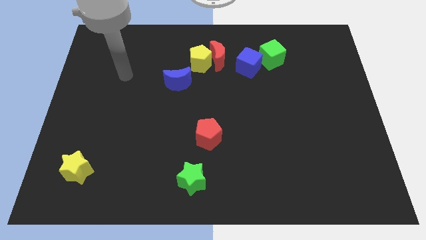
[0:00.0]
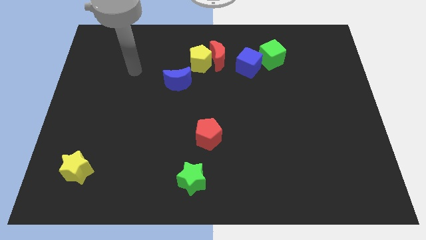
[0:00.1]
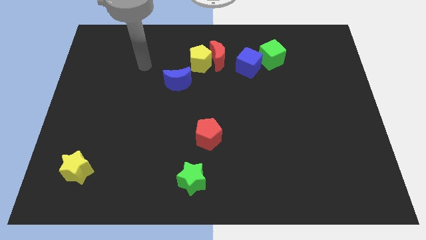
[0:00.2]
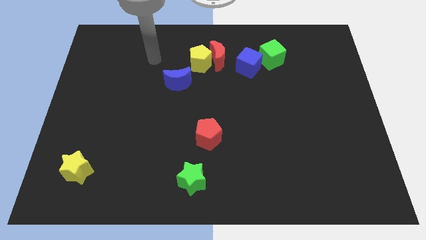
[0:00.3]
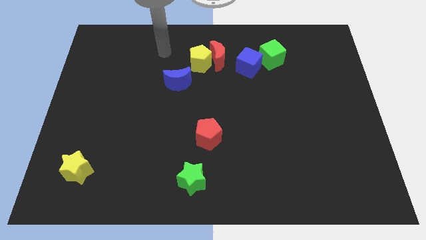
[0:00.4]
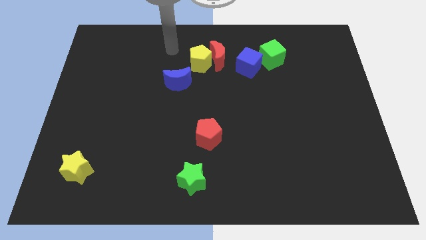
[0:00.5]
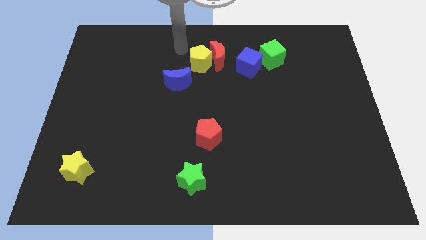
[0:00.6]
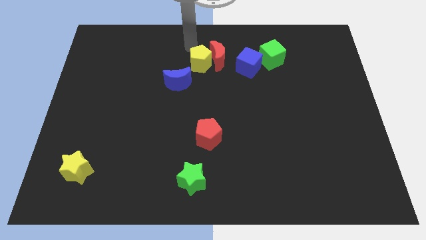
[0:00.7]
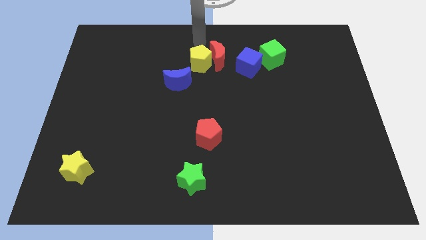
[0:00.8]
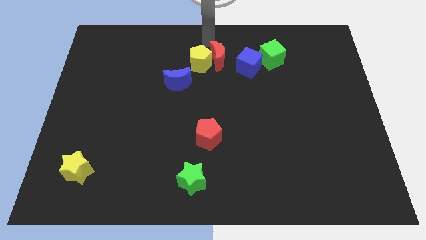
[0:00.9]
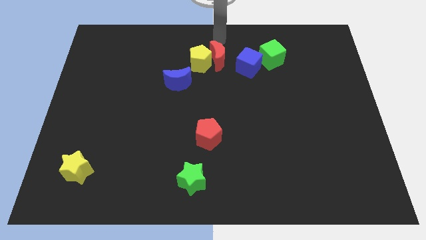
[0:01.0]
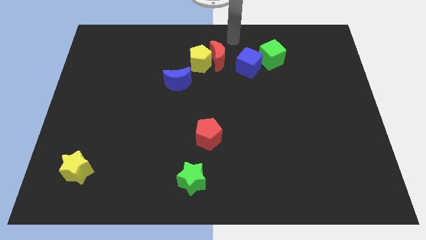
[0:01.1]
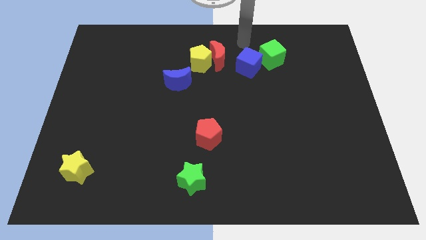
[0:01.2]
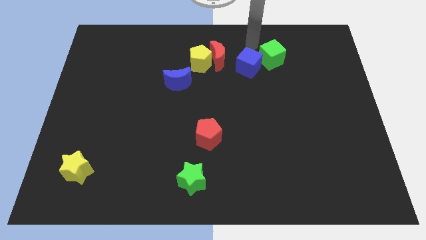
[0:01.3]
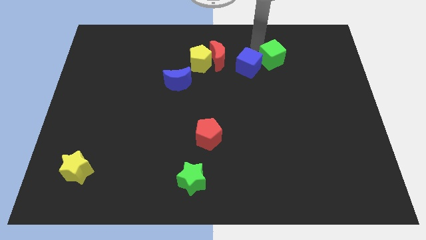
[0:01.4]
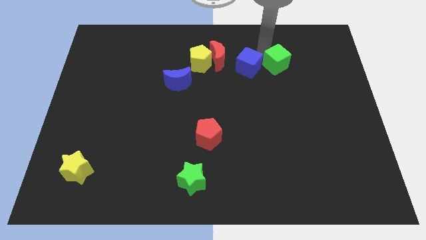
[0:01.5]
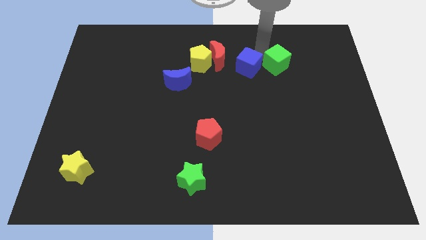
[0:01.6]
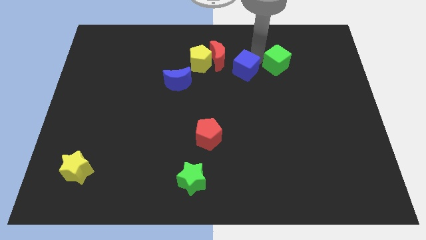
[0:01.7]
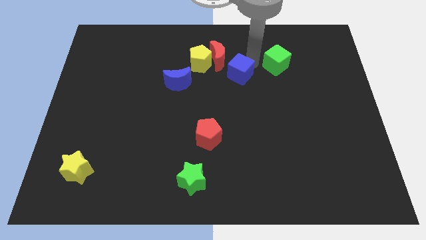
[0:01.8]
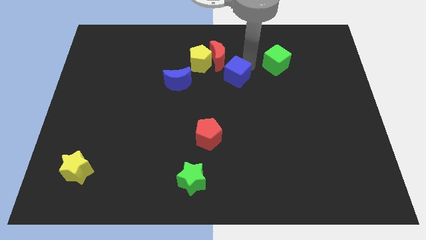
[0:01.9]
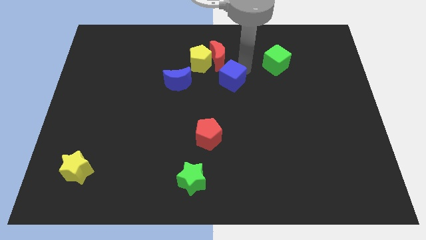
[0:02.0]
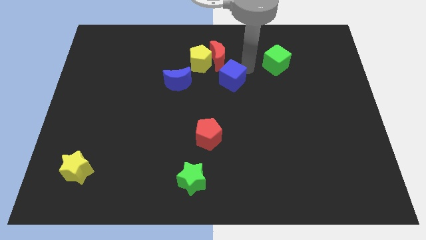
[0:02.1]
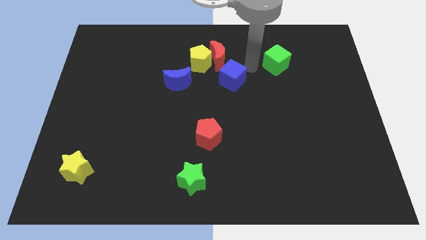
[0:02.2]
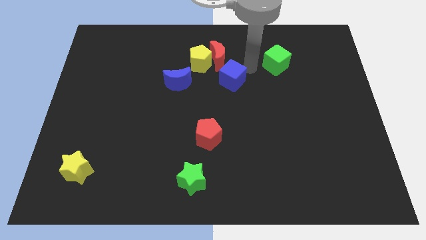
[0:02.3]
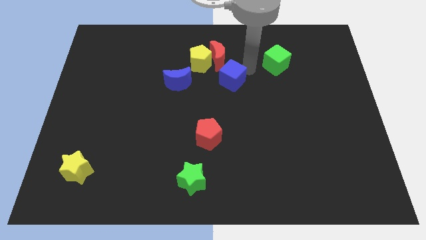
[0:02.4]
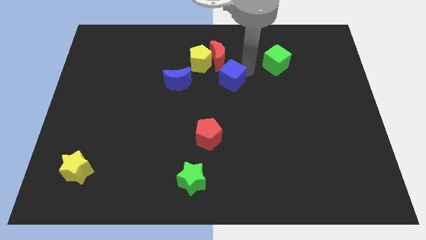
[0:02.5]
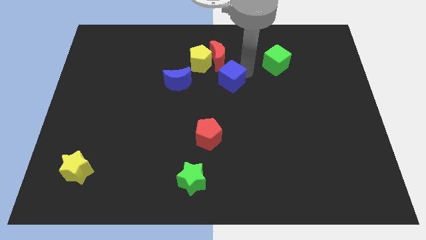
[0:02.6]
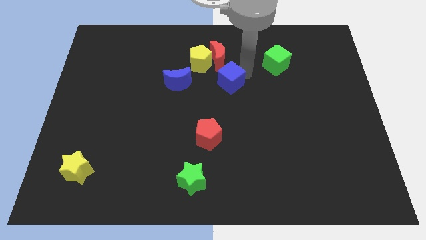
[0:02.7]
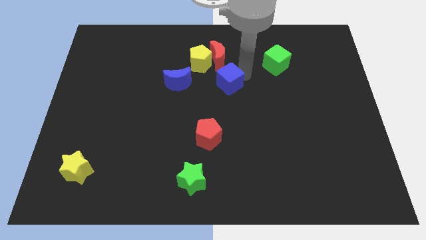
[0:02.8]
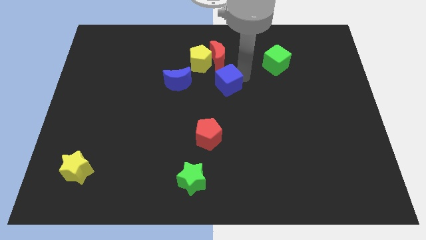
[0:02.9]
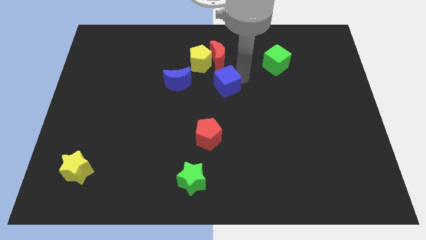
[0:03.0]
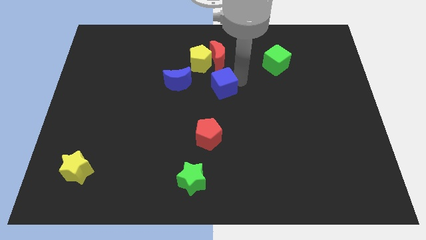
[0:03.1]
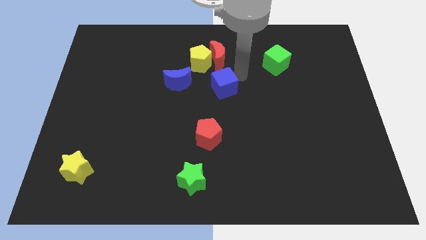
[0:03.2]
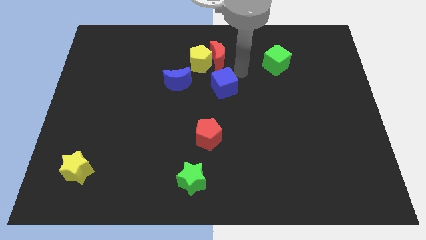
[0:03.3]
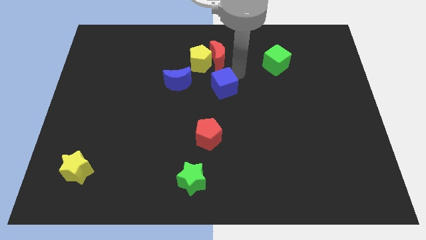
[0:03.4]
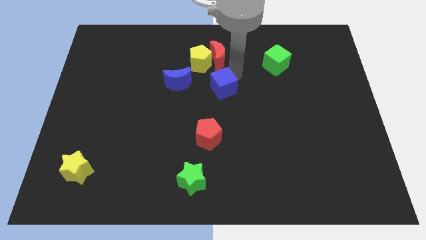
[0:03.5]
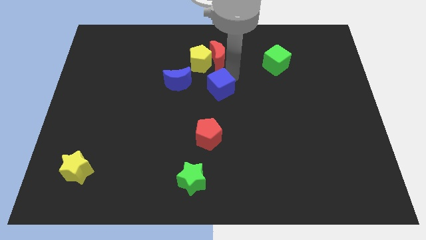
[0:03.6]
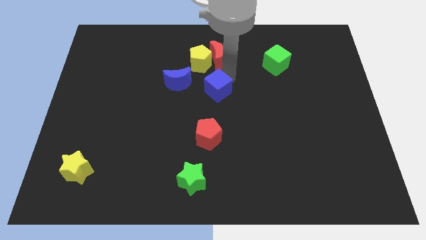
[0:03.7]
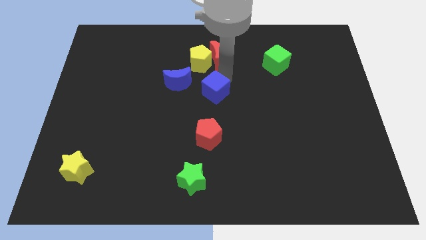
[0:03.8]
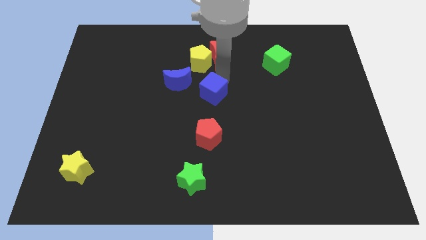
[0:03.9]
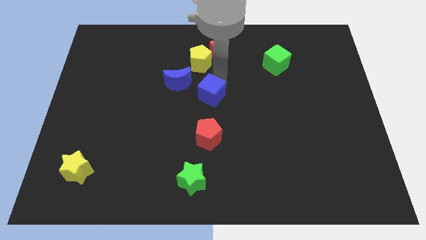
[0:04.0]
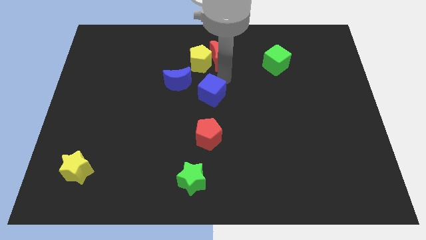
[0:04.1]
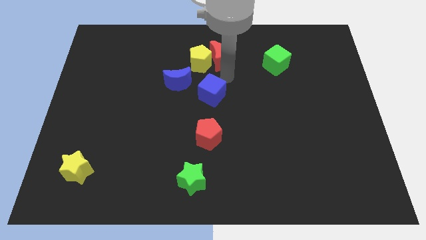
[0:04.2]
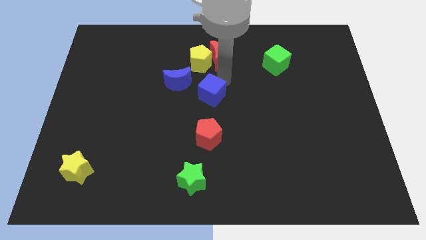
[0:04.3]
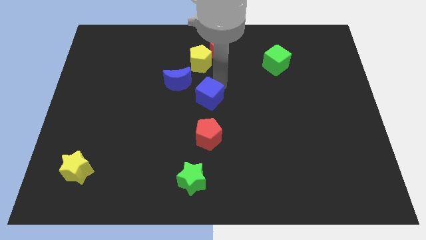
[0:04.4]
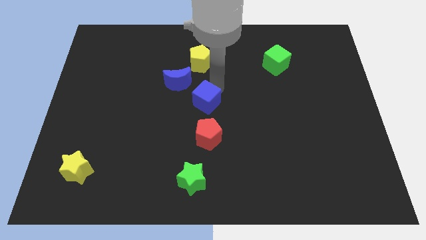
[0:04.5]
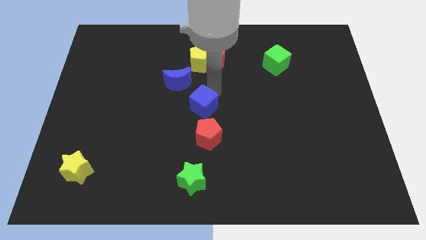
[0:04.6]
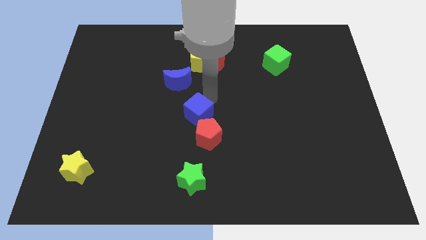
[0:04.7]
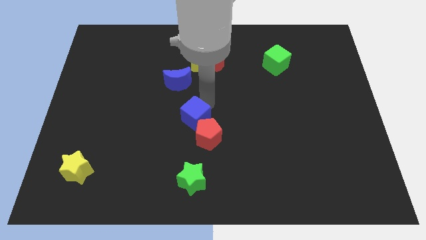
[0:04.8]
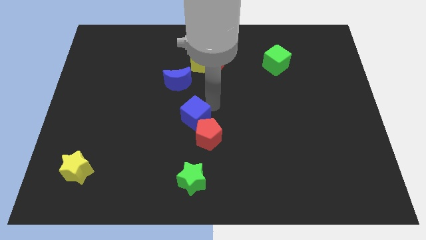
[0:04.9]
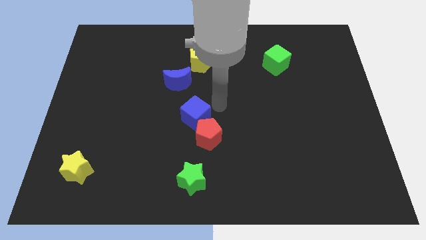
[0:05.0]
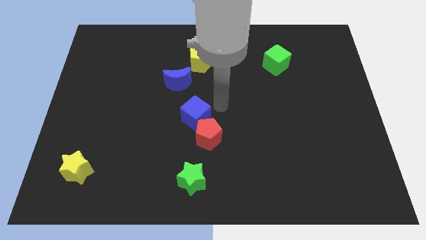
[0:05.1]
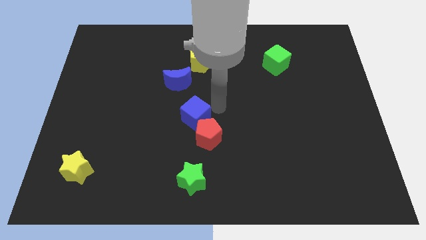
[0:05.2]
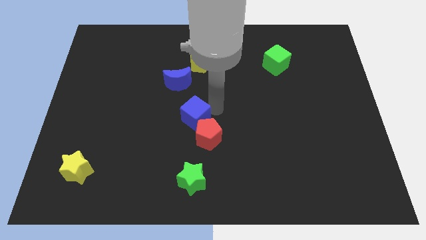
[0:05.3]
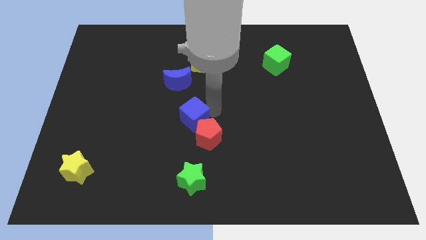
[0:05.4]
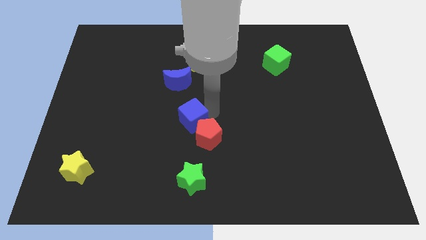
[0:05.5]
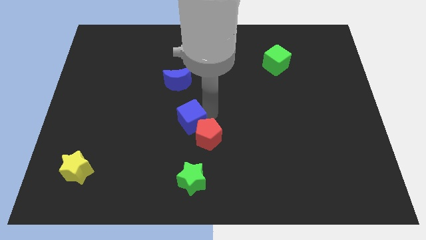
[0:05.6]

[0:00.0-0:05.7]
put the blue cube just left of the red pentagon
